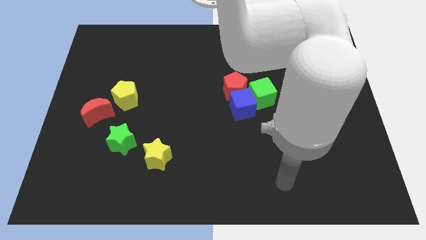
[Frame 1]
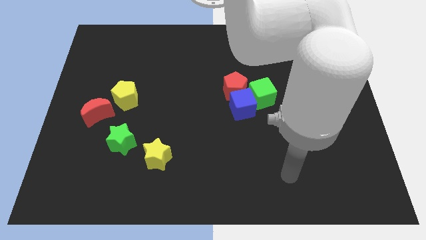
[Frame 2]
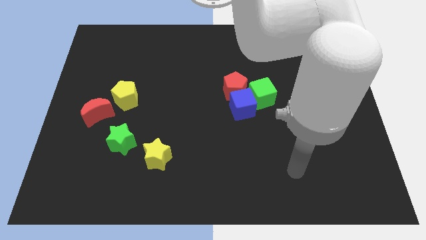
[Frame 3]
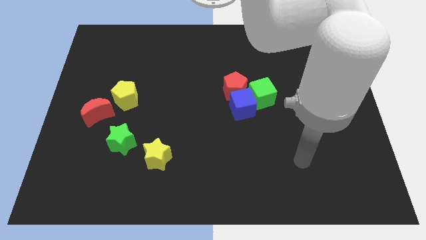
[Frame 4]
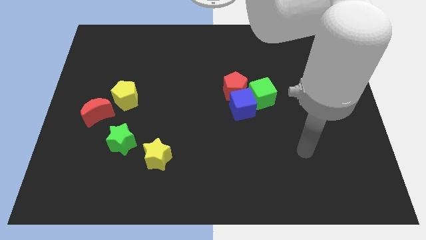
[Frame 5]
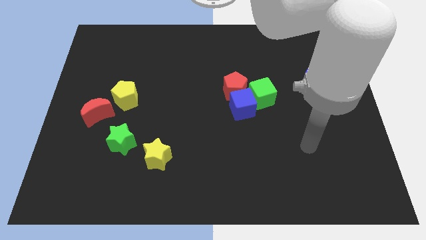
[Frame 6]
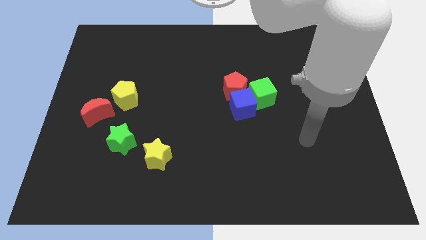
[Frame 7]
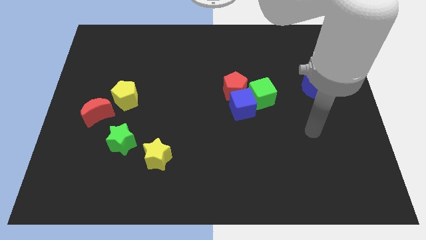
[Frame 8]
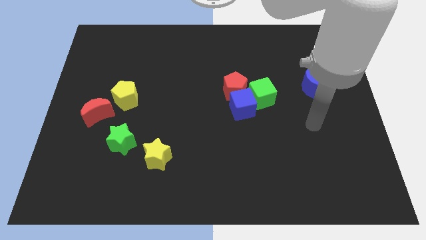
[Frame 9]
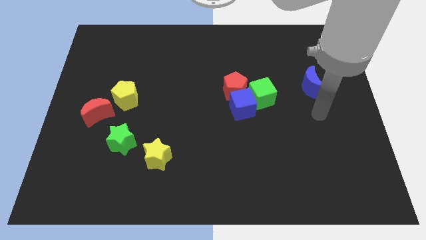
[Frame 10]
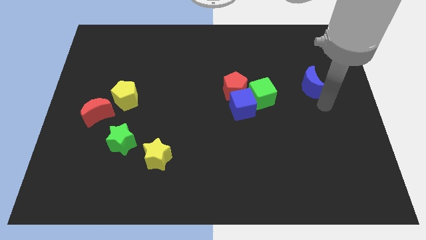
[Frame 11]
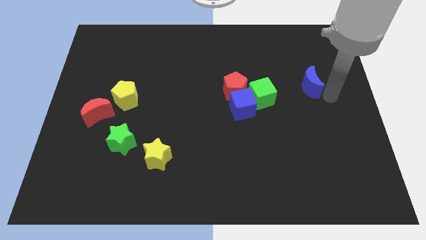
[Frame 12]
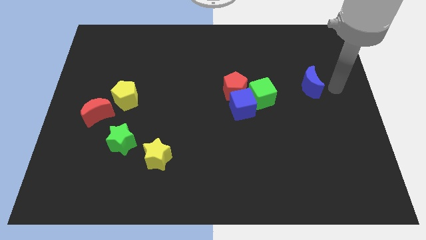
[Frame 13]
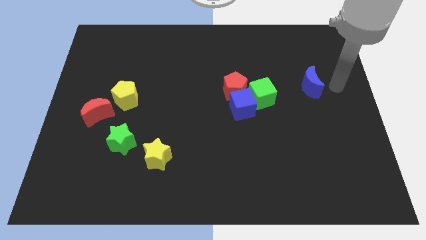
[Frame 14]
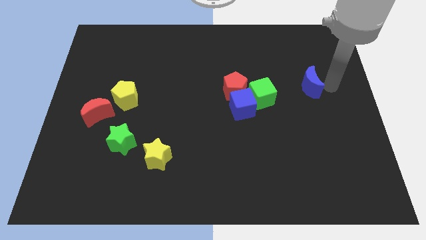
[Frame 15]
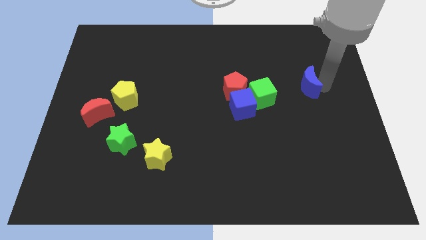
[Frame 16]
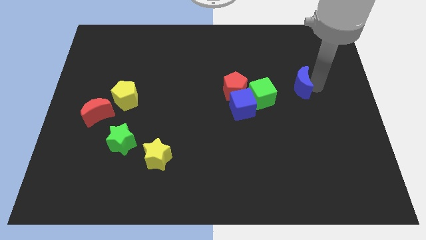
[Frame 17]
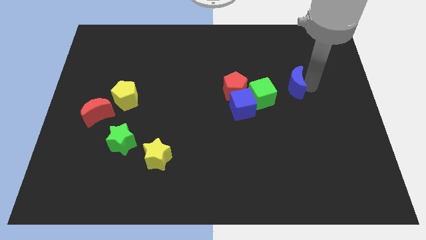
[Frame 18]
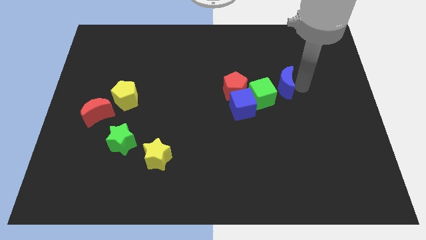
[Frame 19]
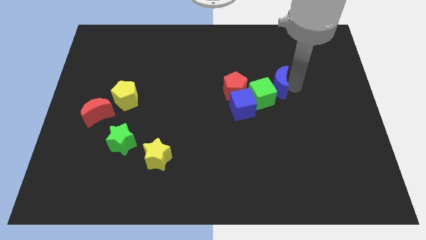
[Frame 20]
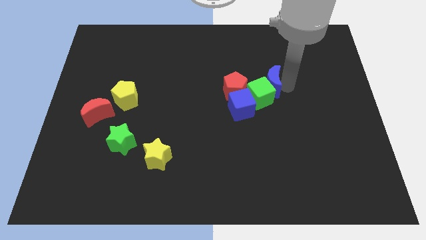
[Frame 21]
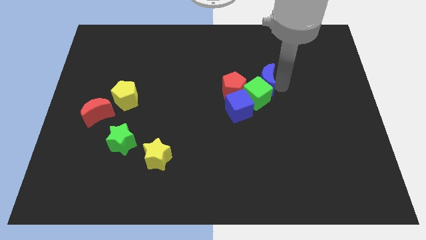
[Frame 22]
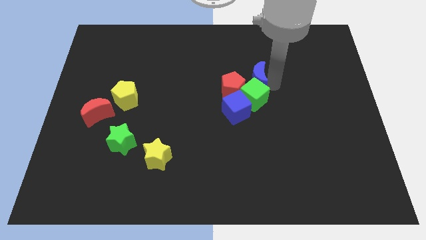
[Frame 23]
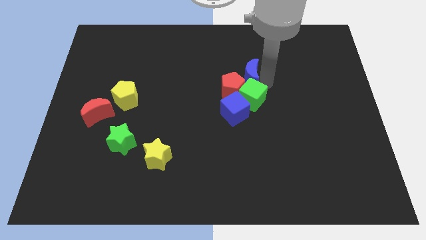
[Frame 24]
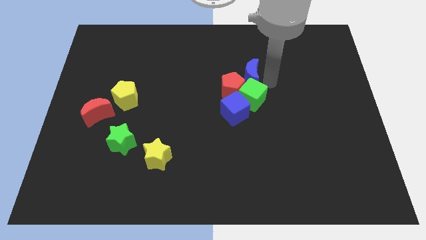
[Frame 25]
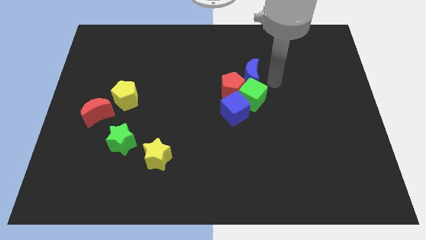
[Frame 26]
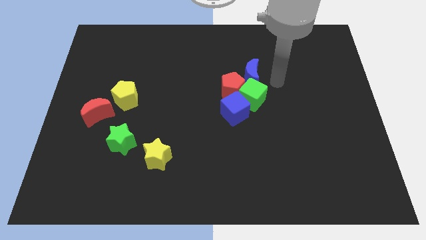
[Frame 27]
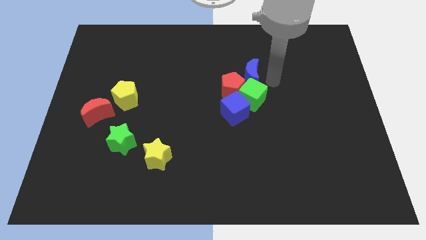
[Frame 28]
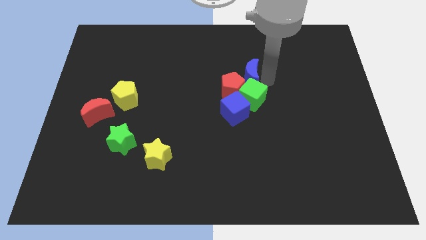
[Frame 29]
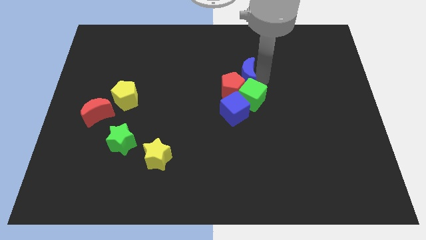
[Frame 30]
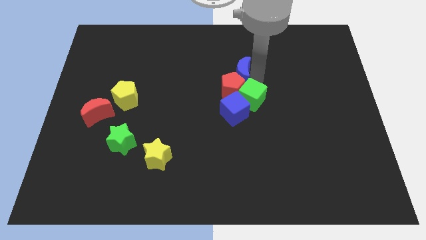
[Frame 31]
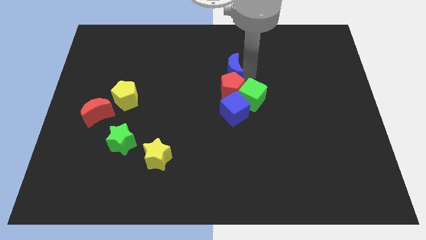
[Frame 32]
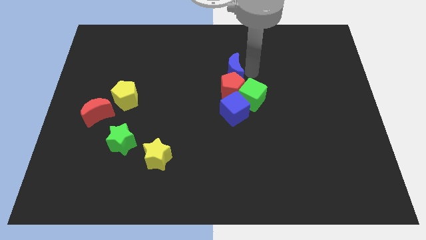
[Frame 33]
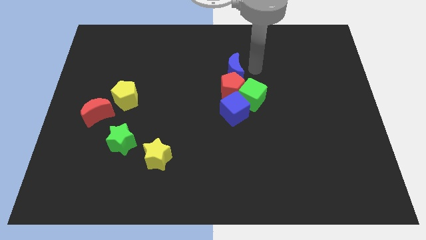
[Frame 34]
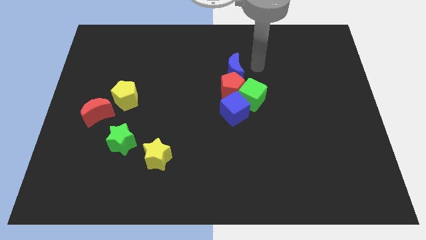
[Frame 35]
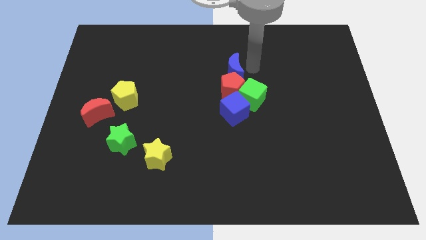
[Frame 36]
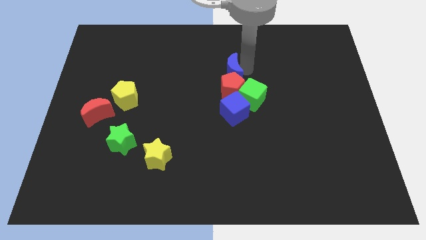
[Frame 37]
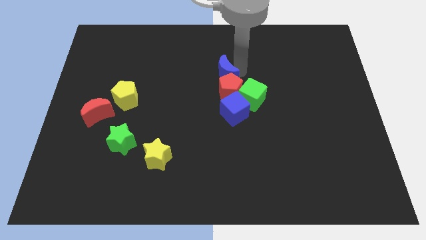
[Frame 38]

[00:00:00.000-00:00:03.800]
slide the blue moon left

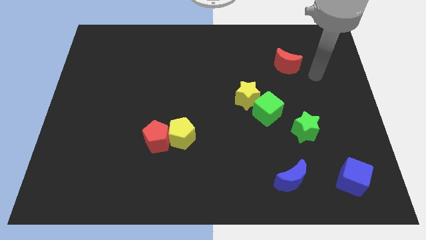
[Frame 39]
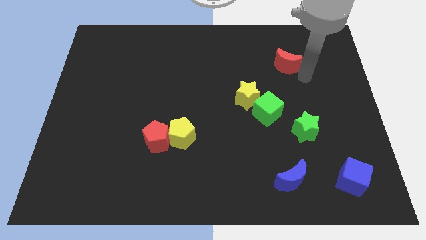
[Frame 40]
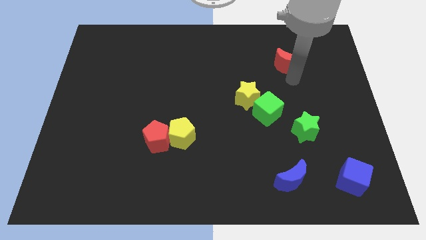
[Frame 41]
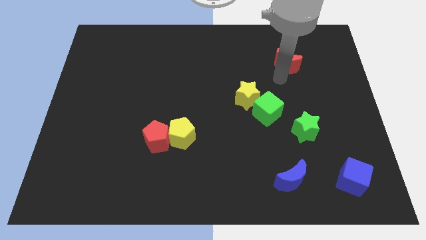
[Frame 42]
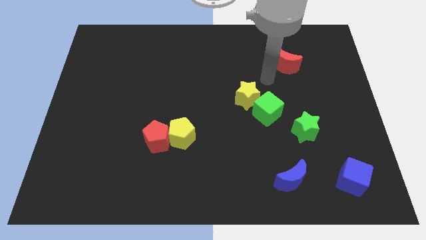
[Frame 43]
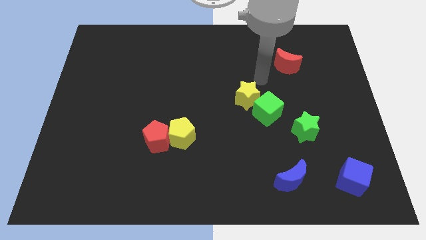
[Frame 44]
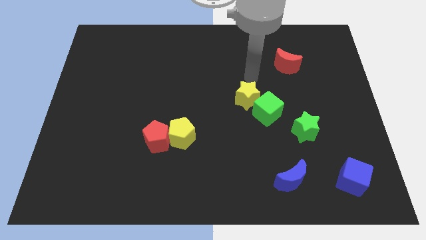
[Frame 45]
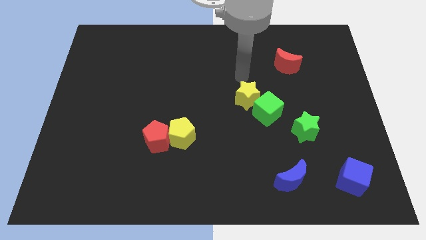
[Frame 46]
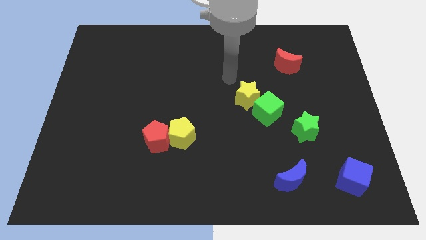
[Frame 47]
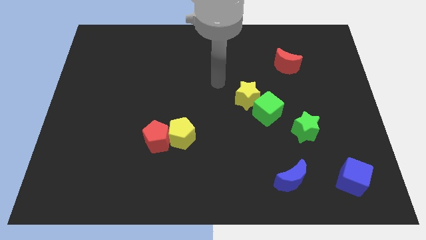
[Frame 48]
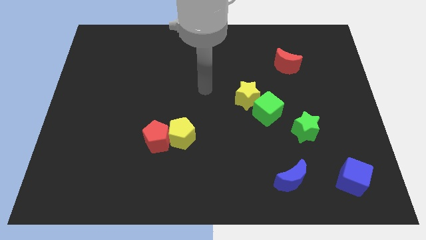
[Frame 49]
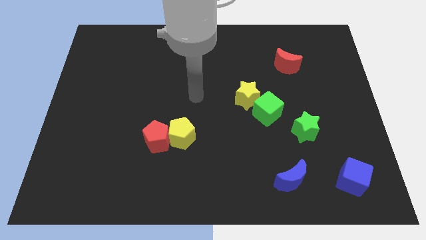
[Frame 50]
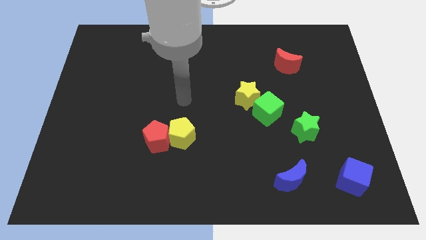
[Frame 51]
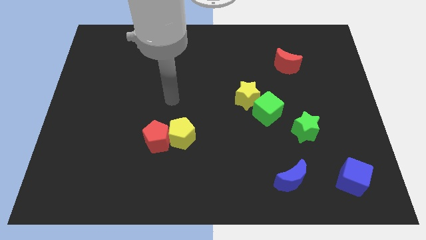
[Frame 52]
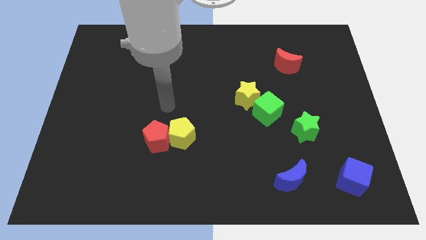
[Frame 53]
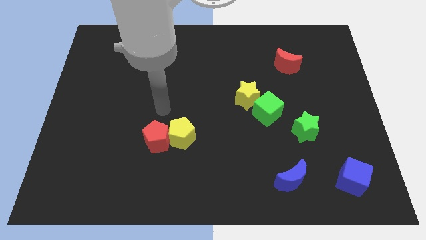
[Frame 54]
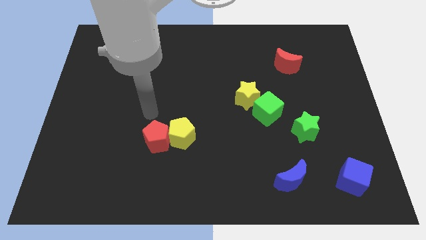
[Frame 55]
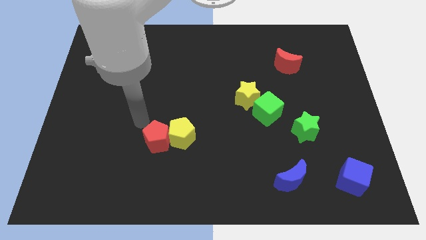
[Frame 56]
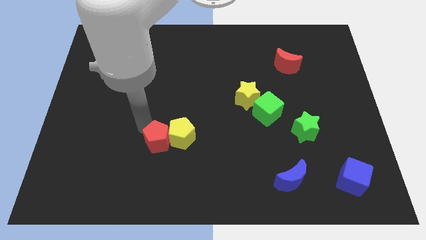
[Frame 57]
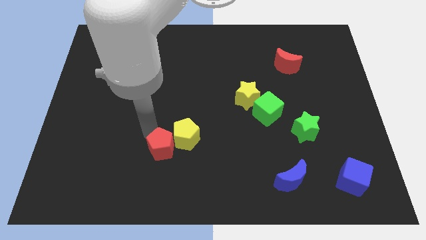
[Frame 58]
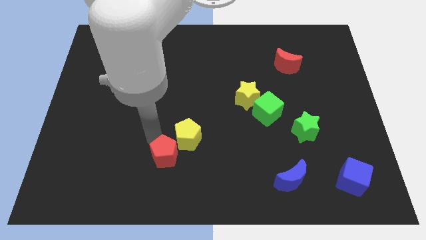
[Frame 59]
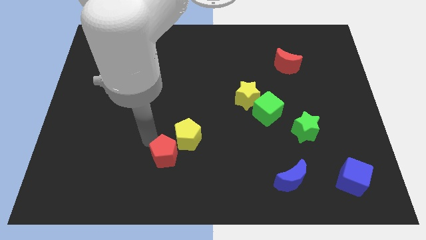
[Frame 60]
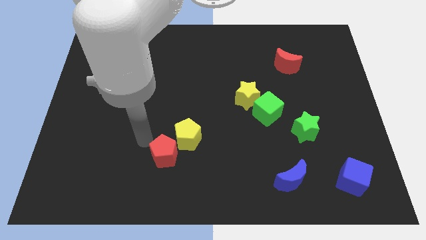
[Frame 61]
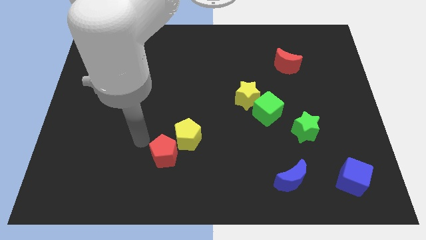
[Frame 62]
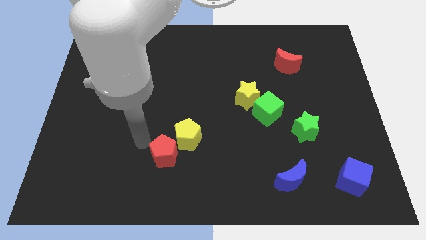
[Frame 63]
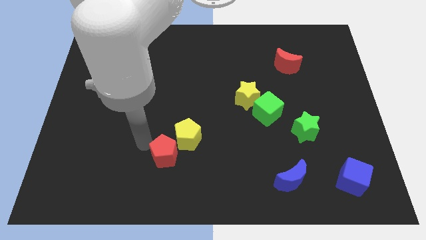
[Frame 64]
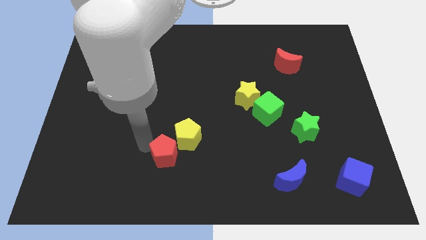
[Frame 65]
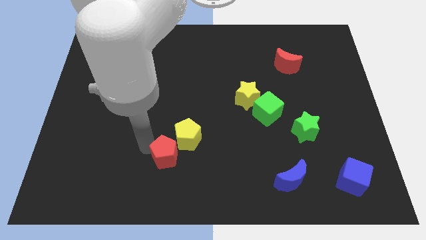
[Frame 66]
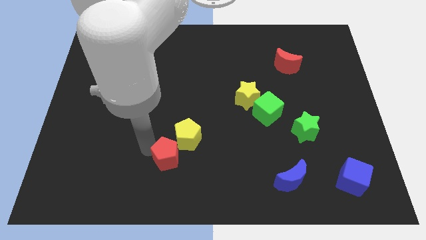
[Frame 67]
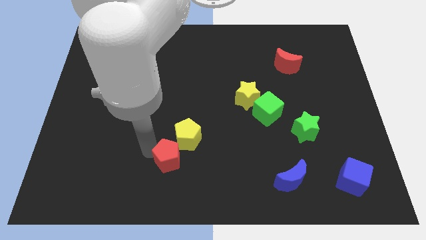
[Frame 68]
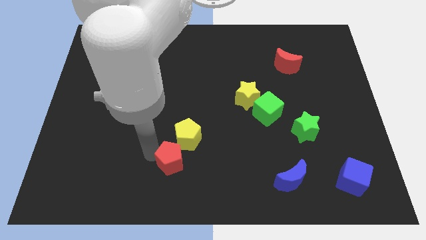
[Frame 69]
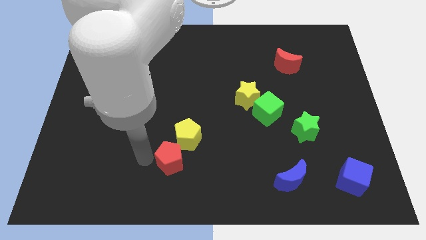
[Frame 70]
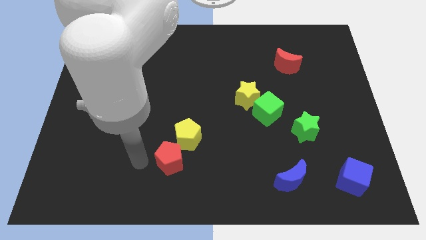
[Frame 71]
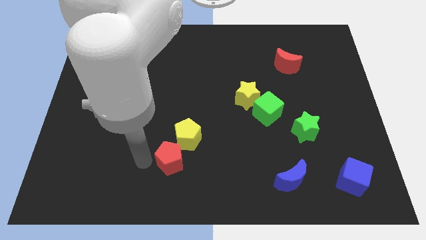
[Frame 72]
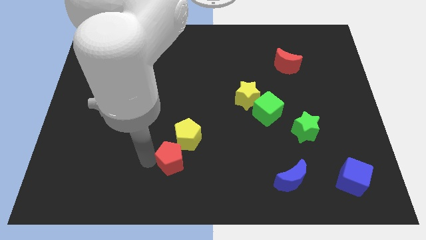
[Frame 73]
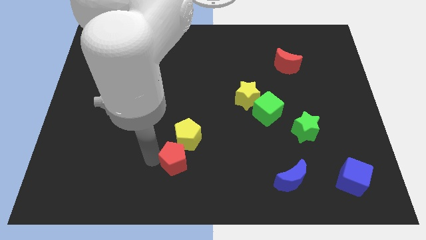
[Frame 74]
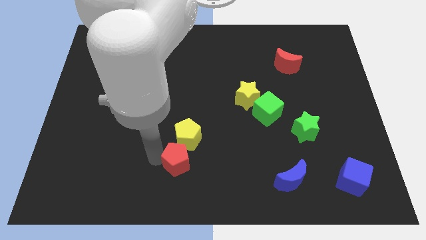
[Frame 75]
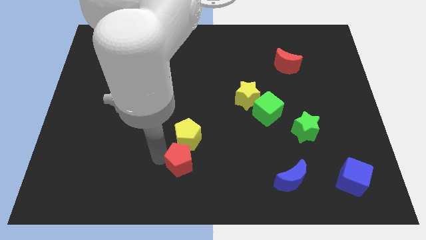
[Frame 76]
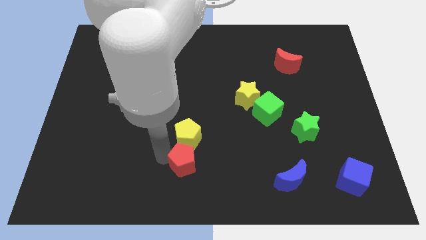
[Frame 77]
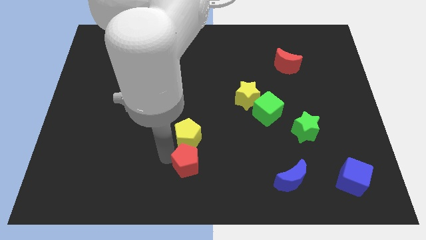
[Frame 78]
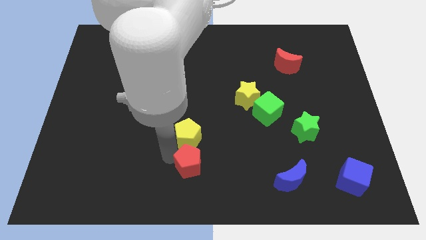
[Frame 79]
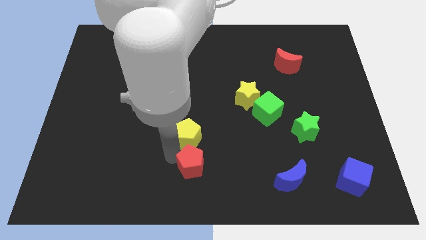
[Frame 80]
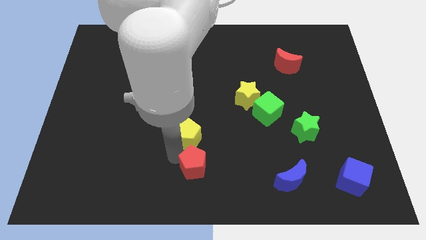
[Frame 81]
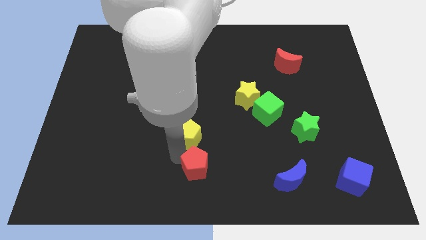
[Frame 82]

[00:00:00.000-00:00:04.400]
slide the red pentagon slightly right
